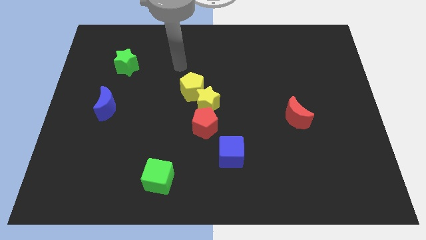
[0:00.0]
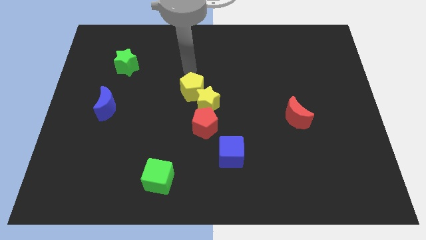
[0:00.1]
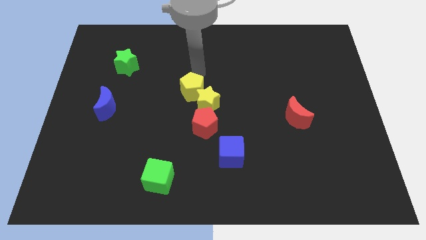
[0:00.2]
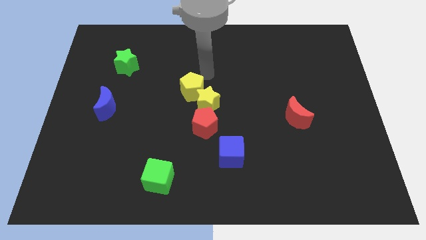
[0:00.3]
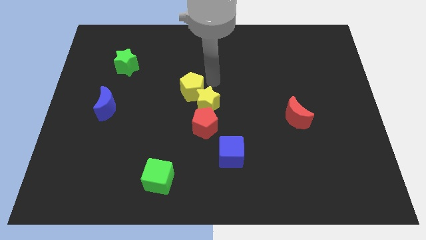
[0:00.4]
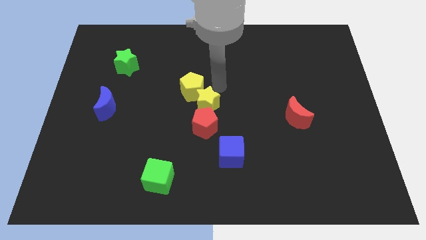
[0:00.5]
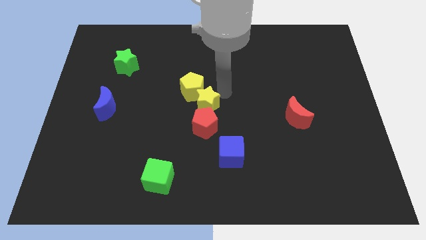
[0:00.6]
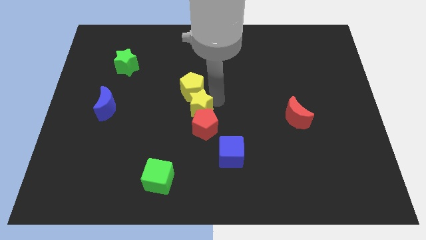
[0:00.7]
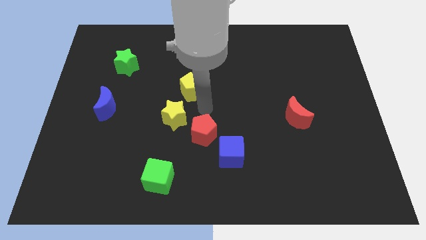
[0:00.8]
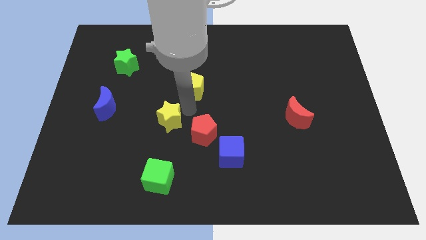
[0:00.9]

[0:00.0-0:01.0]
pull the yellow pentagon apart from the yellow star

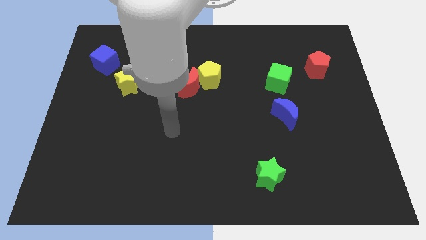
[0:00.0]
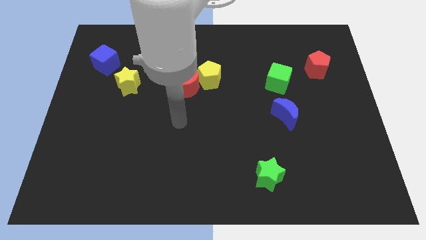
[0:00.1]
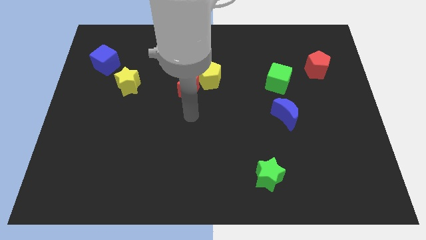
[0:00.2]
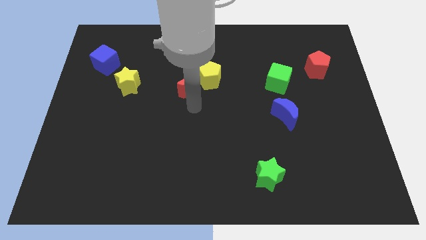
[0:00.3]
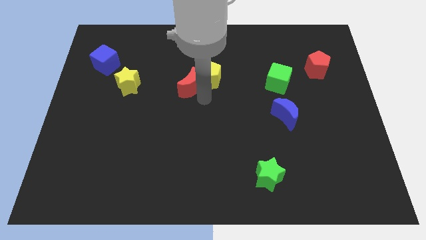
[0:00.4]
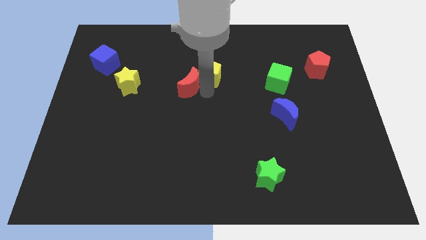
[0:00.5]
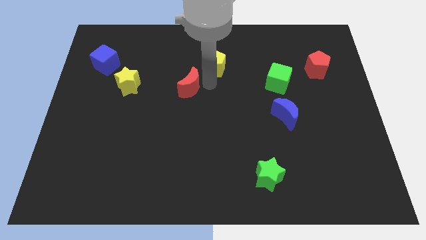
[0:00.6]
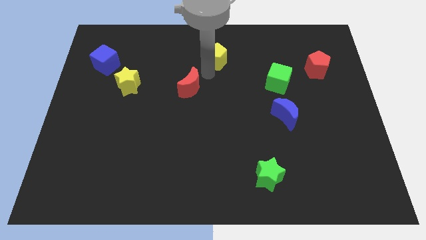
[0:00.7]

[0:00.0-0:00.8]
pull the red moon apart from the yellow pentagon

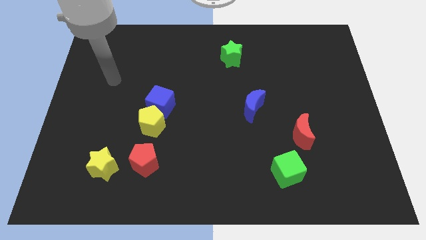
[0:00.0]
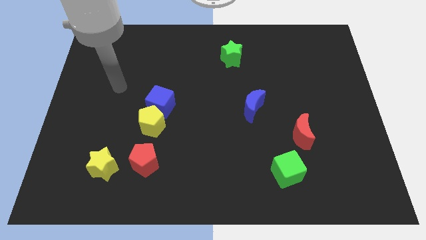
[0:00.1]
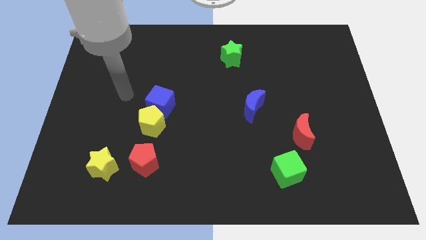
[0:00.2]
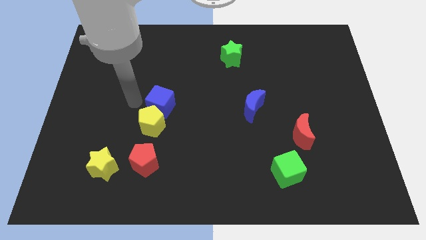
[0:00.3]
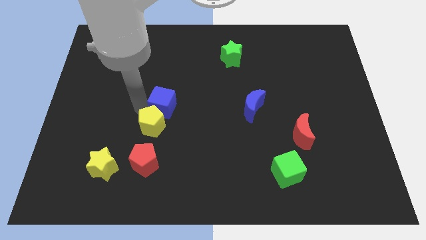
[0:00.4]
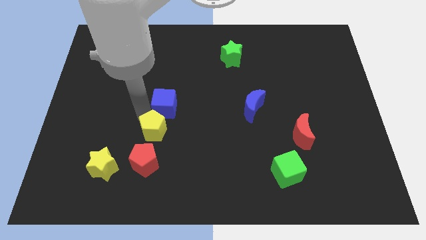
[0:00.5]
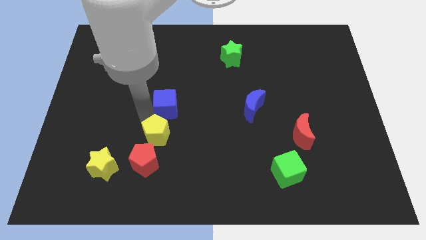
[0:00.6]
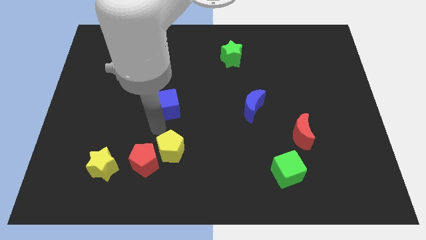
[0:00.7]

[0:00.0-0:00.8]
separate the blue cube from the yellow pentagon

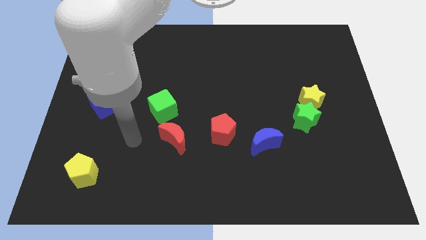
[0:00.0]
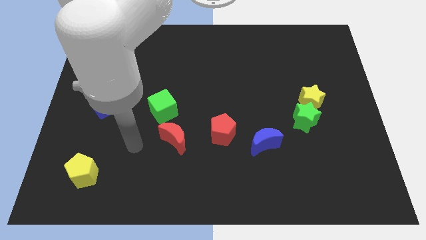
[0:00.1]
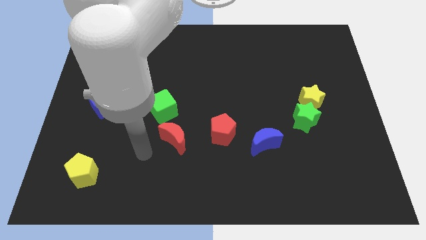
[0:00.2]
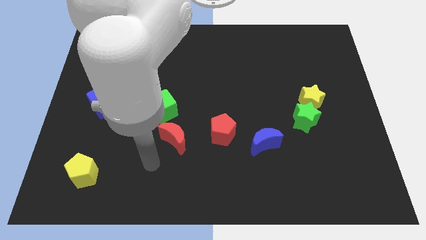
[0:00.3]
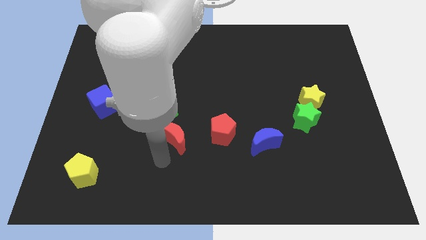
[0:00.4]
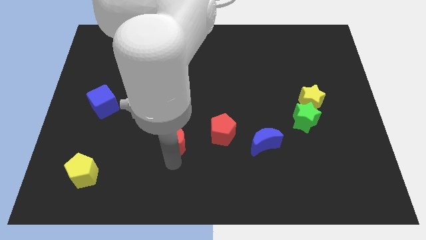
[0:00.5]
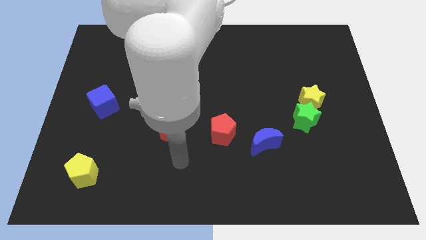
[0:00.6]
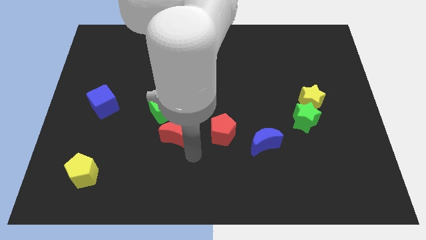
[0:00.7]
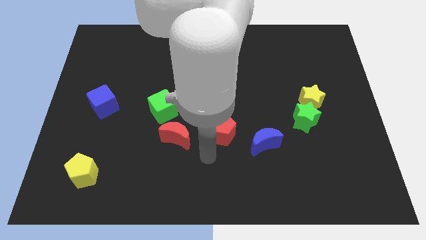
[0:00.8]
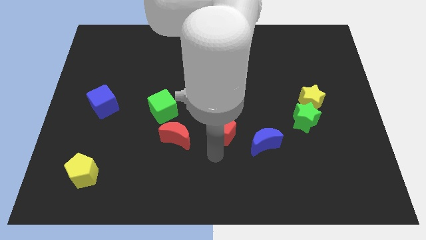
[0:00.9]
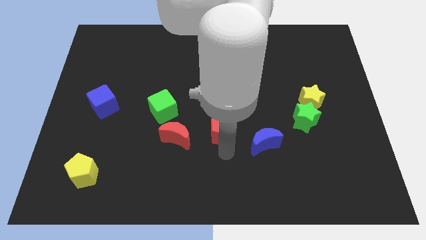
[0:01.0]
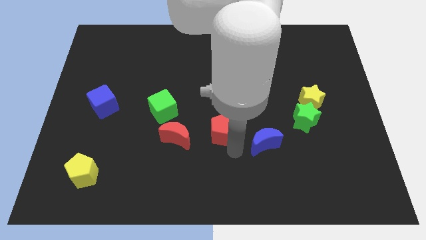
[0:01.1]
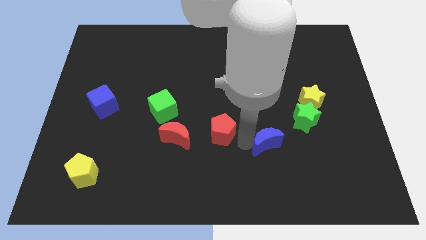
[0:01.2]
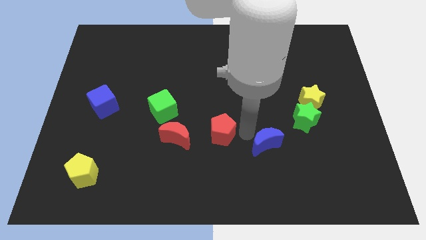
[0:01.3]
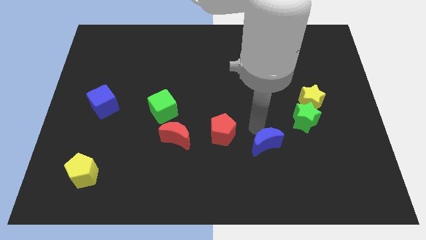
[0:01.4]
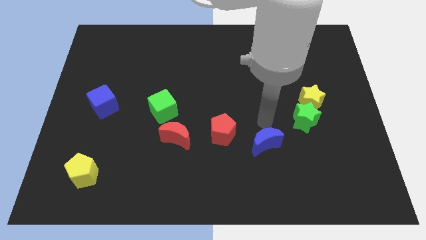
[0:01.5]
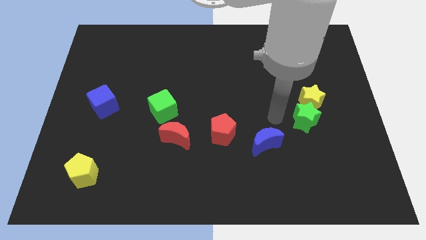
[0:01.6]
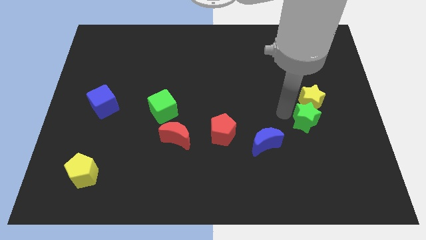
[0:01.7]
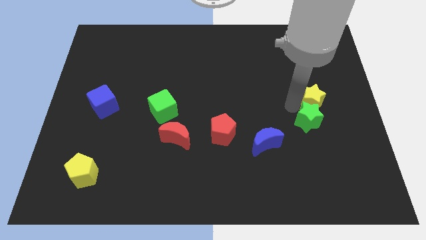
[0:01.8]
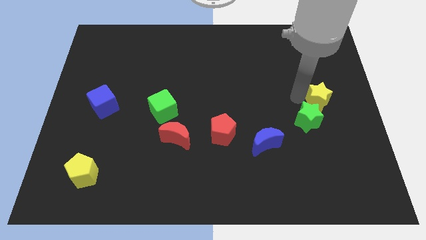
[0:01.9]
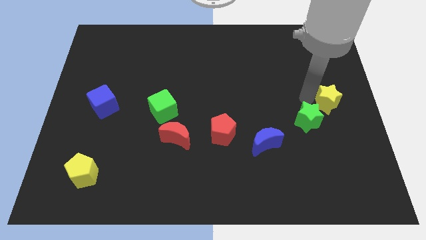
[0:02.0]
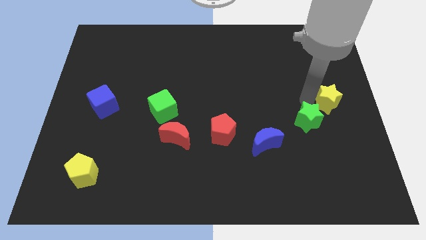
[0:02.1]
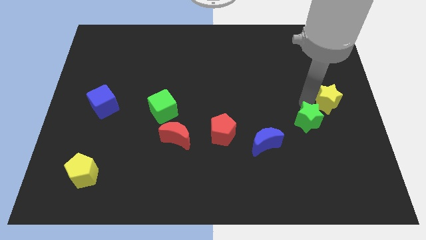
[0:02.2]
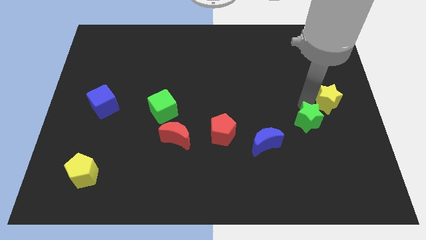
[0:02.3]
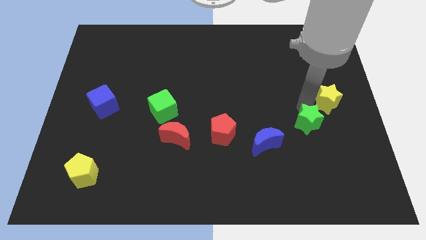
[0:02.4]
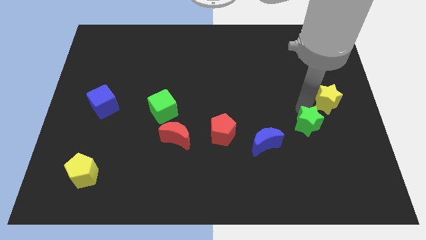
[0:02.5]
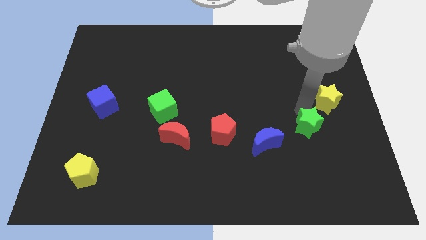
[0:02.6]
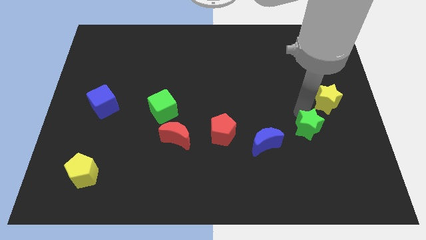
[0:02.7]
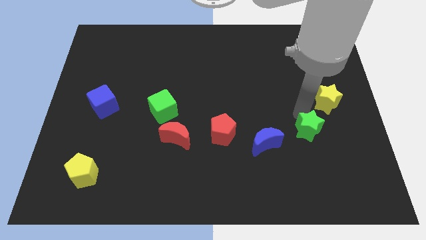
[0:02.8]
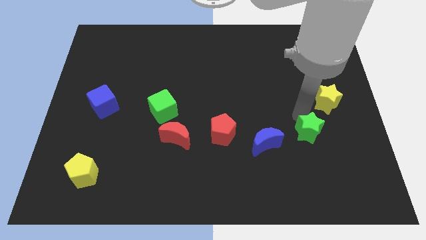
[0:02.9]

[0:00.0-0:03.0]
move the green star away from the yellow star

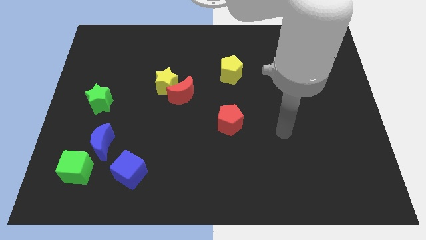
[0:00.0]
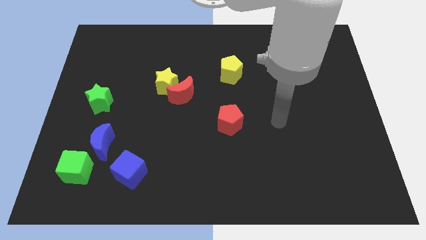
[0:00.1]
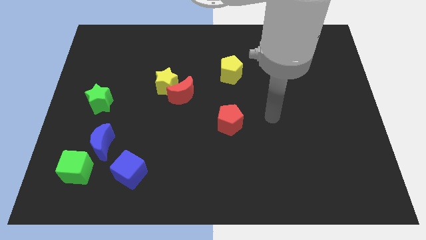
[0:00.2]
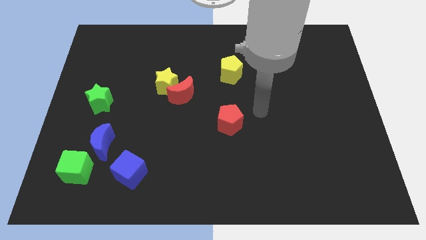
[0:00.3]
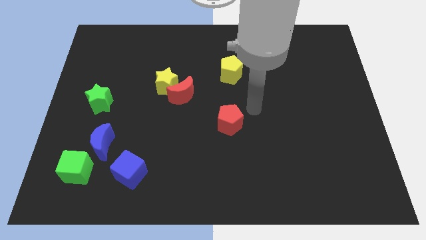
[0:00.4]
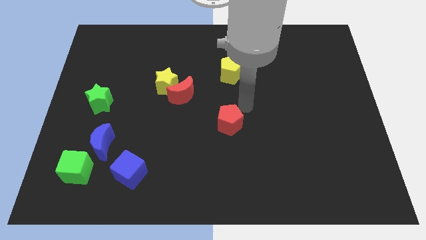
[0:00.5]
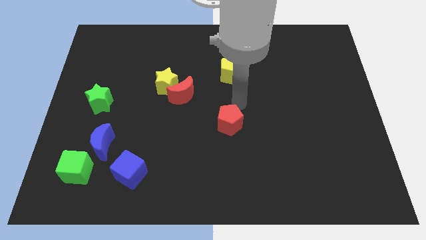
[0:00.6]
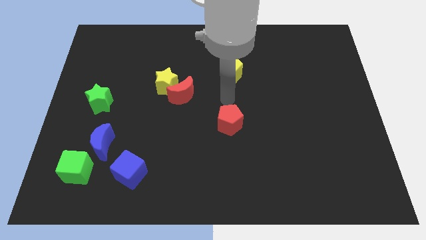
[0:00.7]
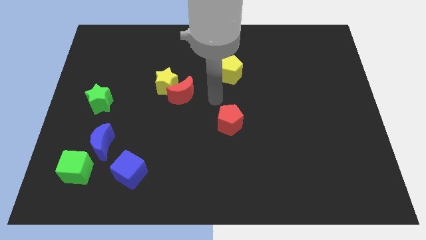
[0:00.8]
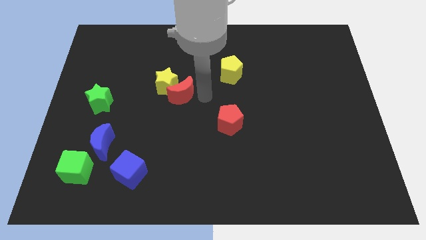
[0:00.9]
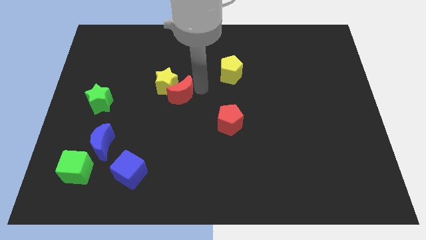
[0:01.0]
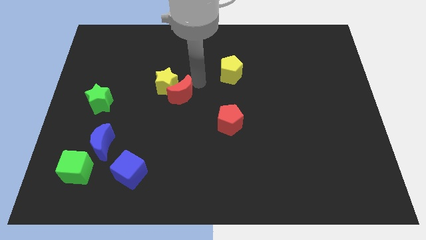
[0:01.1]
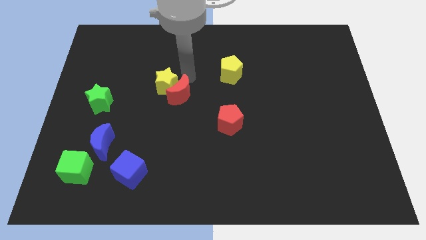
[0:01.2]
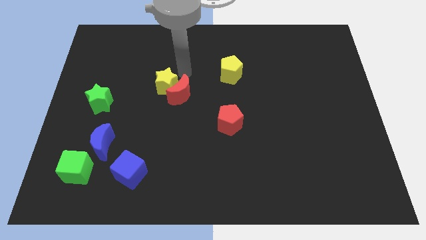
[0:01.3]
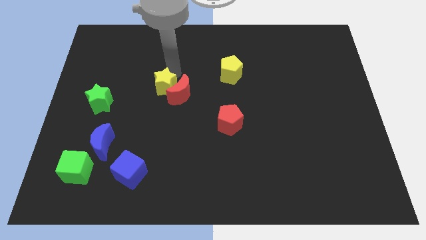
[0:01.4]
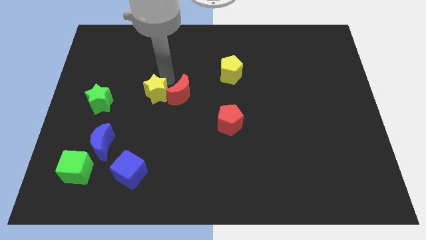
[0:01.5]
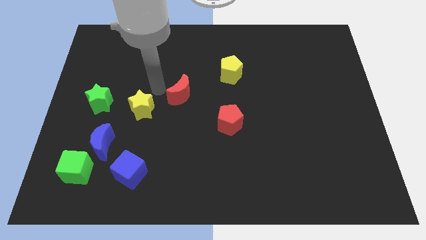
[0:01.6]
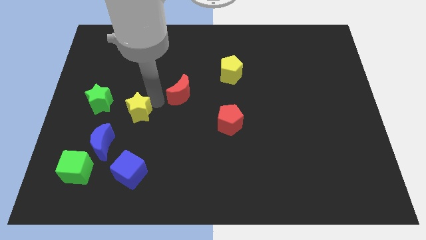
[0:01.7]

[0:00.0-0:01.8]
move the red moon away from the yellow star

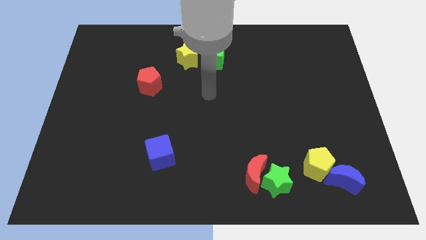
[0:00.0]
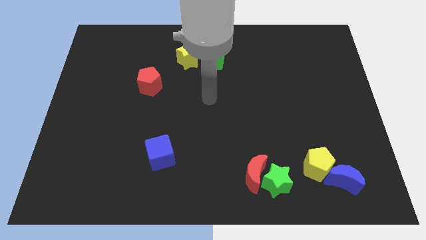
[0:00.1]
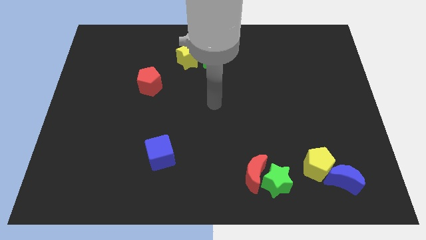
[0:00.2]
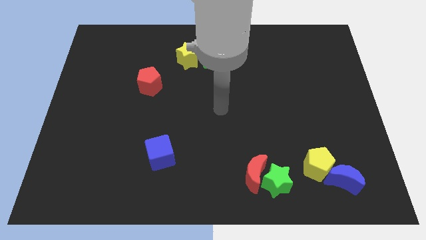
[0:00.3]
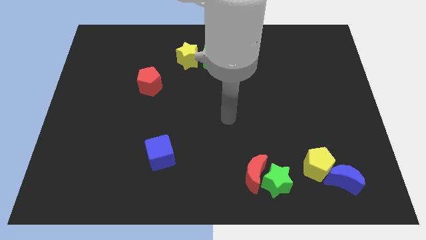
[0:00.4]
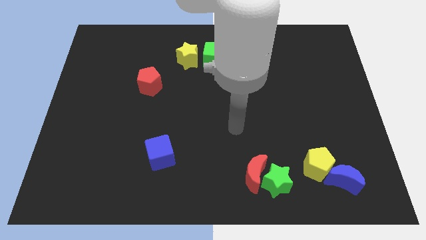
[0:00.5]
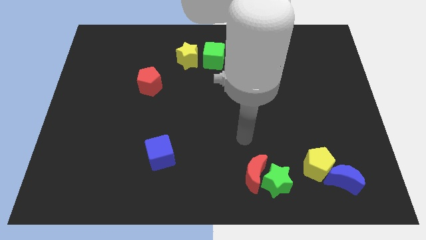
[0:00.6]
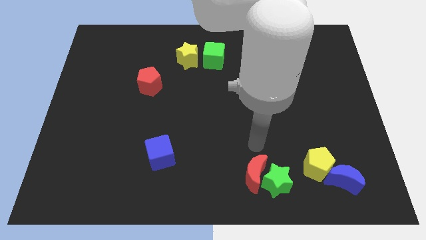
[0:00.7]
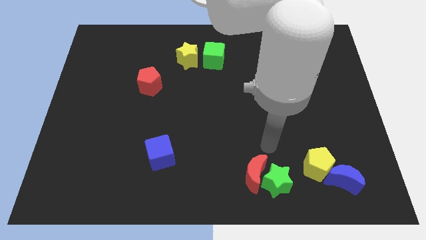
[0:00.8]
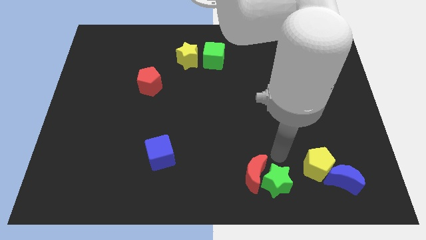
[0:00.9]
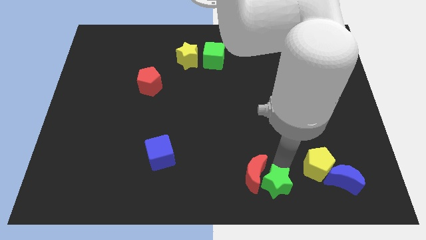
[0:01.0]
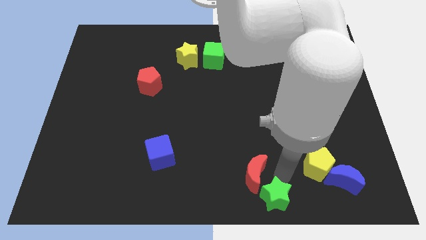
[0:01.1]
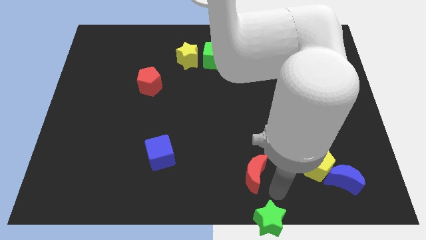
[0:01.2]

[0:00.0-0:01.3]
move the red moon away from the green star

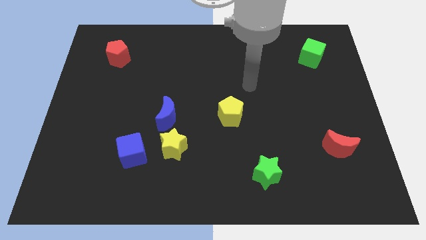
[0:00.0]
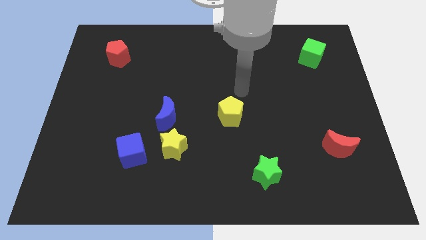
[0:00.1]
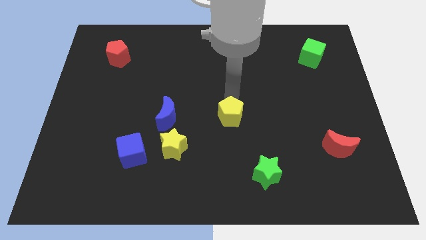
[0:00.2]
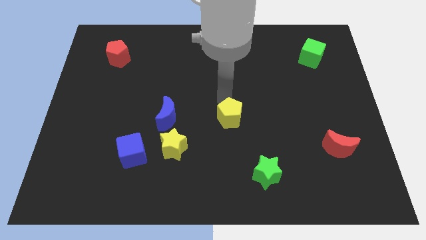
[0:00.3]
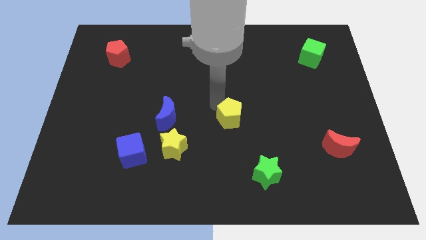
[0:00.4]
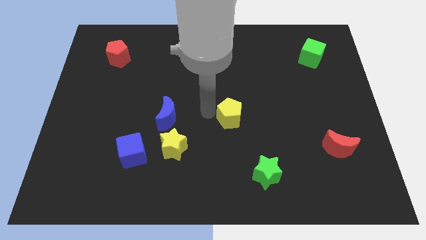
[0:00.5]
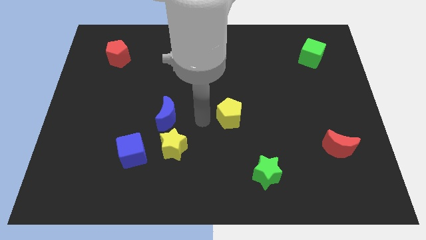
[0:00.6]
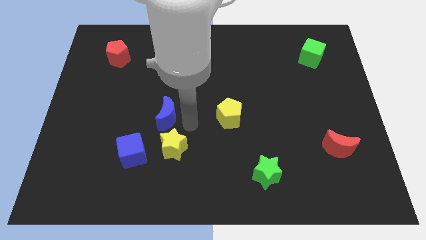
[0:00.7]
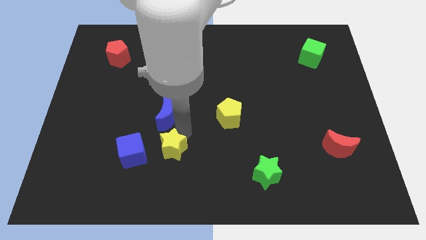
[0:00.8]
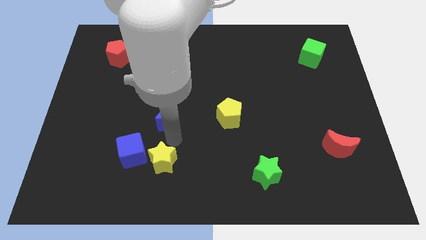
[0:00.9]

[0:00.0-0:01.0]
pull the blue moon apart from the yellow star
